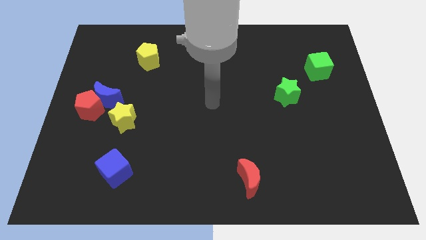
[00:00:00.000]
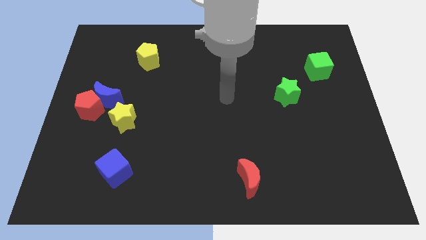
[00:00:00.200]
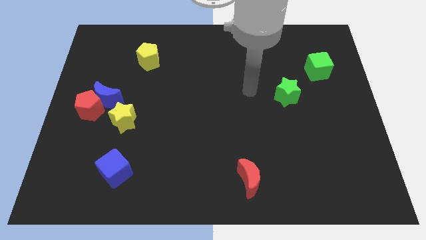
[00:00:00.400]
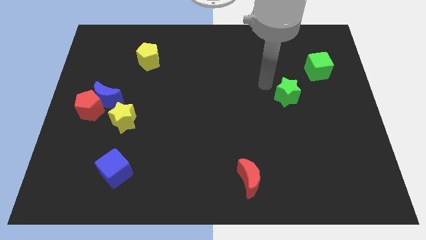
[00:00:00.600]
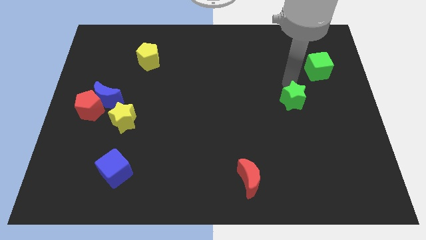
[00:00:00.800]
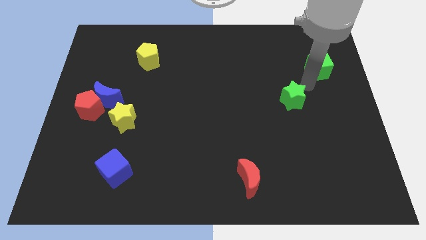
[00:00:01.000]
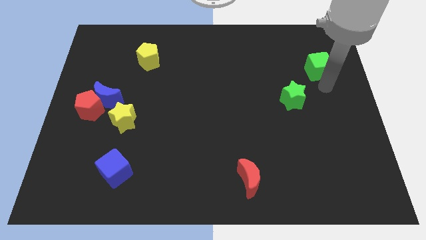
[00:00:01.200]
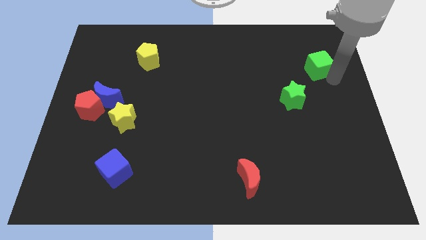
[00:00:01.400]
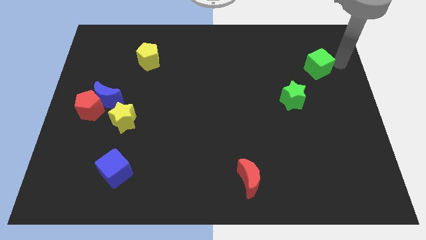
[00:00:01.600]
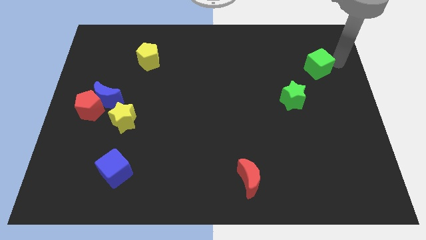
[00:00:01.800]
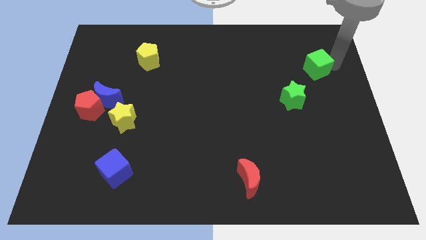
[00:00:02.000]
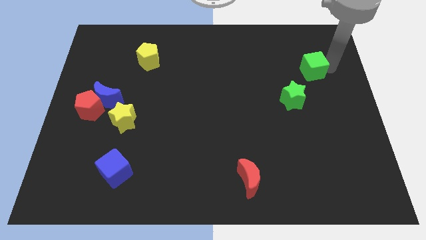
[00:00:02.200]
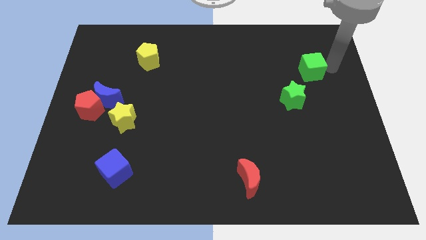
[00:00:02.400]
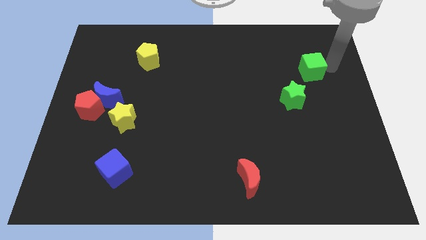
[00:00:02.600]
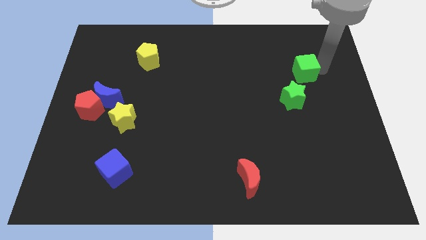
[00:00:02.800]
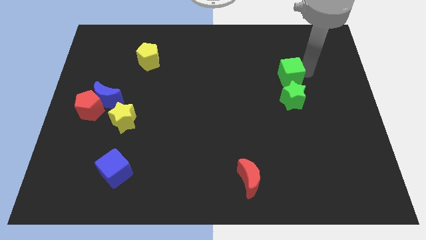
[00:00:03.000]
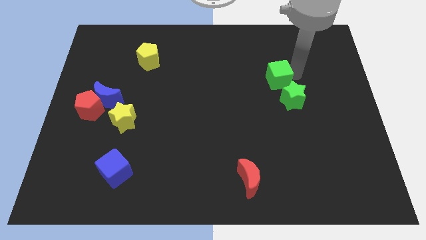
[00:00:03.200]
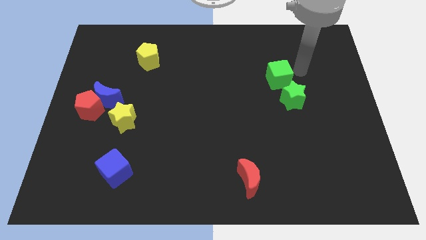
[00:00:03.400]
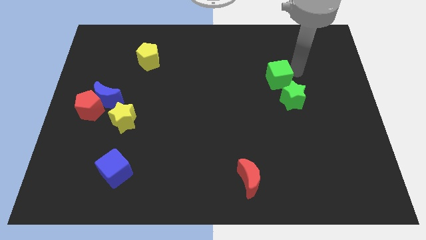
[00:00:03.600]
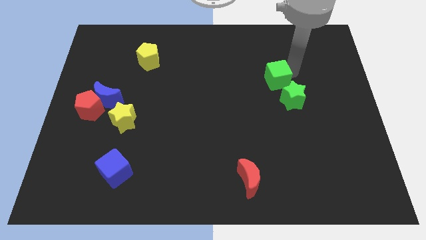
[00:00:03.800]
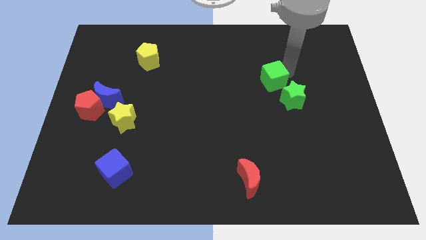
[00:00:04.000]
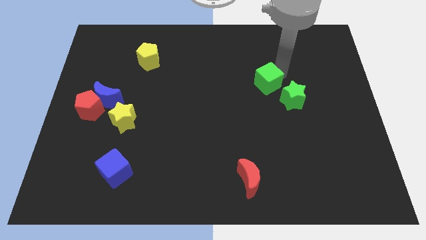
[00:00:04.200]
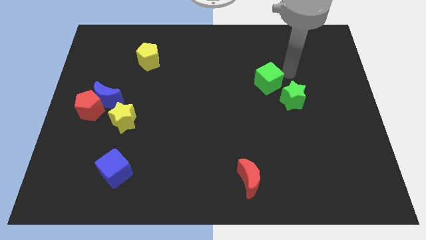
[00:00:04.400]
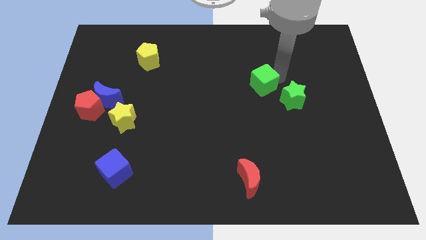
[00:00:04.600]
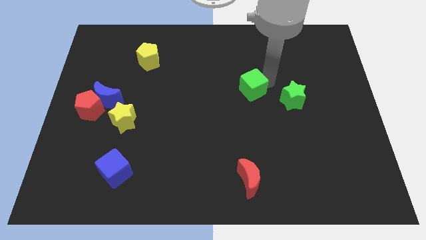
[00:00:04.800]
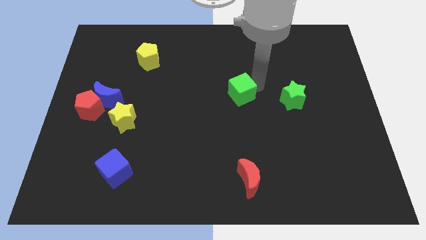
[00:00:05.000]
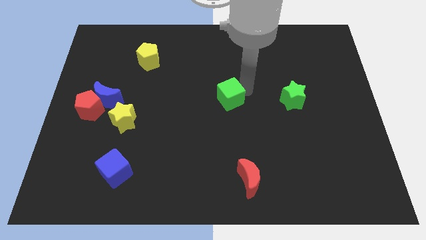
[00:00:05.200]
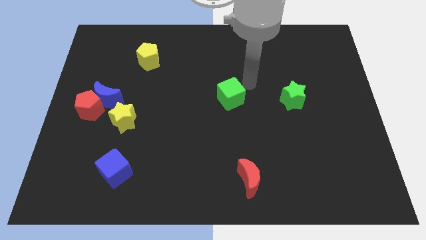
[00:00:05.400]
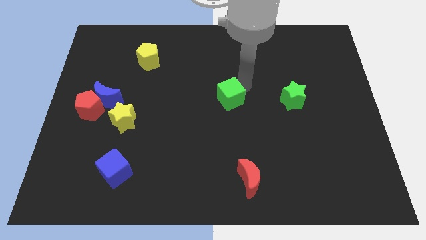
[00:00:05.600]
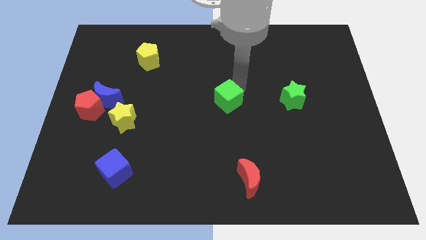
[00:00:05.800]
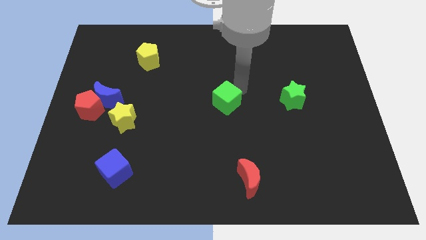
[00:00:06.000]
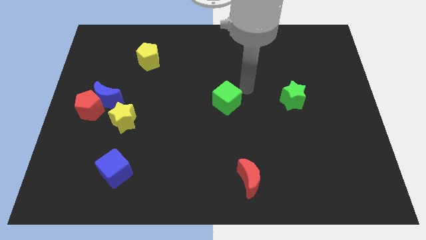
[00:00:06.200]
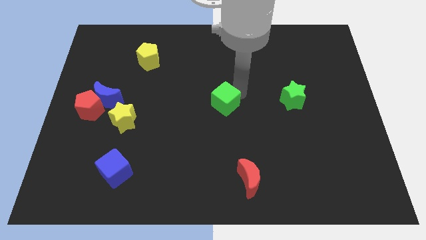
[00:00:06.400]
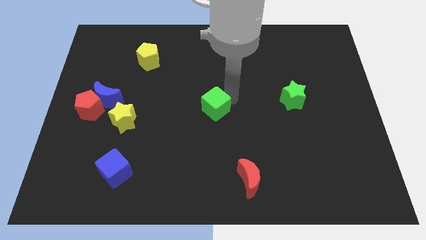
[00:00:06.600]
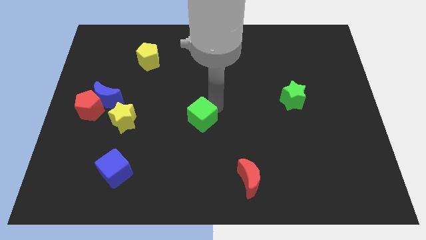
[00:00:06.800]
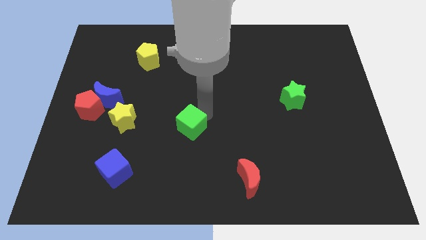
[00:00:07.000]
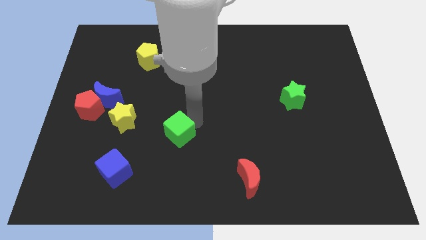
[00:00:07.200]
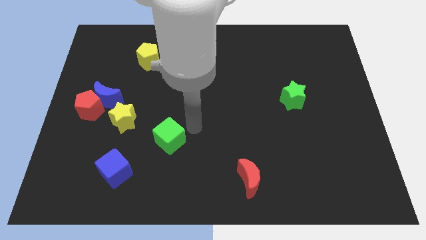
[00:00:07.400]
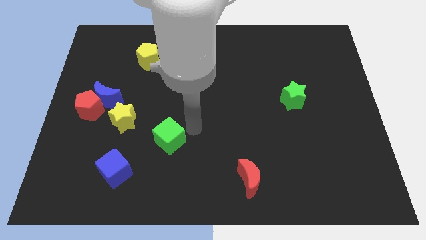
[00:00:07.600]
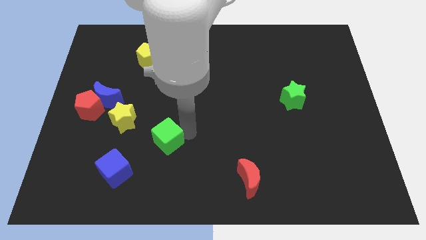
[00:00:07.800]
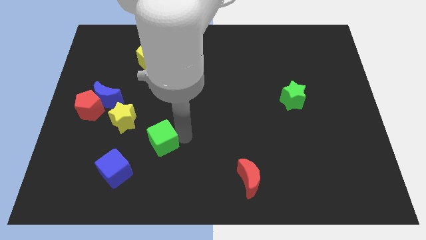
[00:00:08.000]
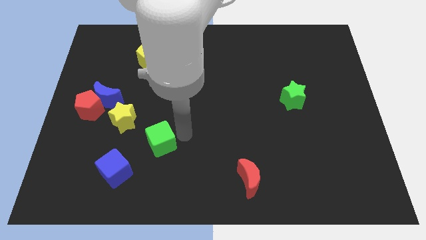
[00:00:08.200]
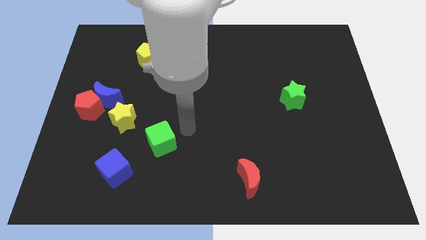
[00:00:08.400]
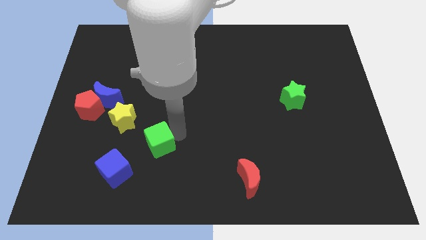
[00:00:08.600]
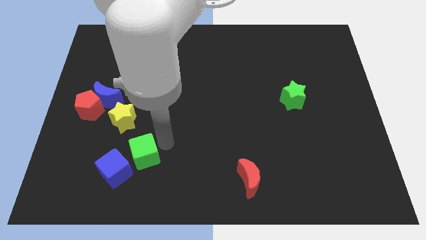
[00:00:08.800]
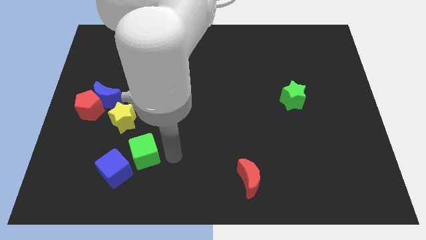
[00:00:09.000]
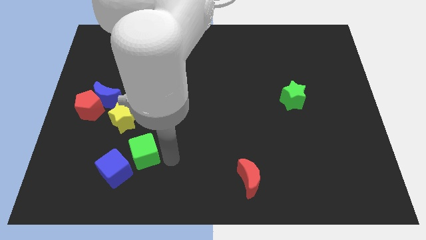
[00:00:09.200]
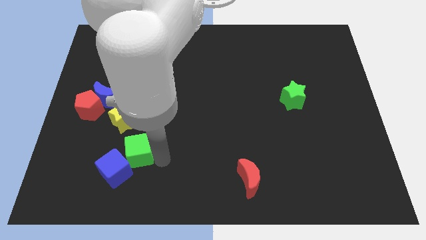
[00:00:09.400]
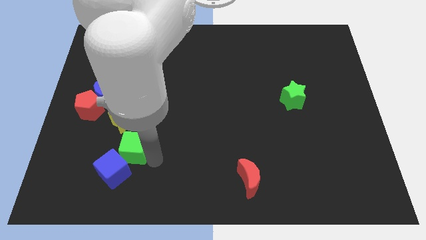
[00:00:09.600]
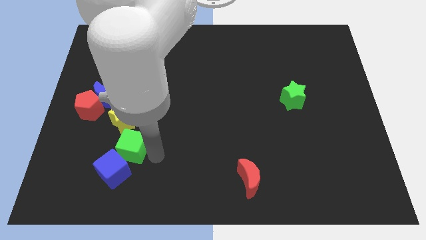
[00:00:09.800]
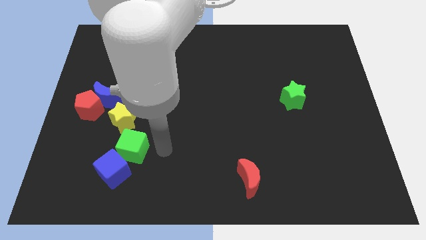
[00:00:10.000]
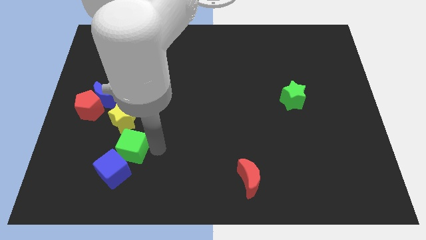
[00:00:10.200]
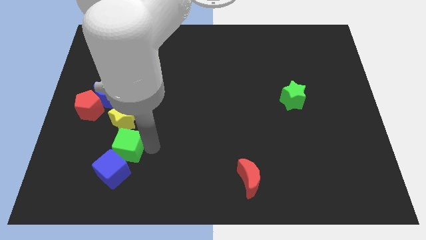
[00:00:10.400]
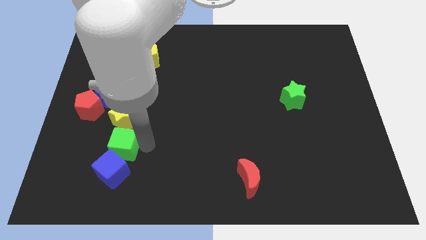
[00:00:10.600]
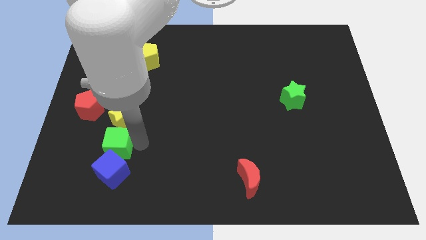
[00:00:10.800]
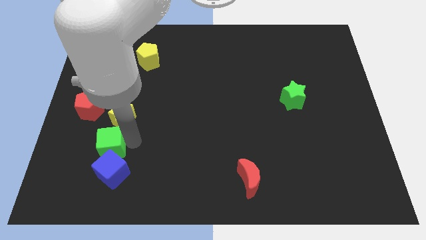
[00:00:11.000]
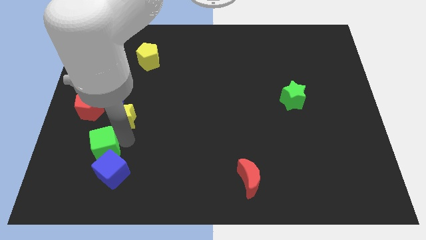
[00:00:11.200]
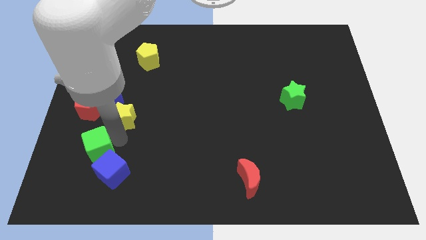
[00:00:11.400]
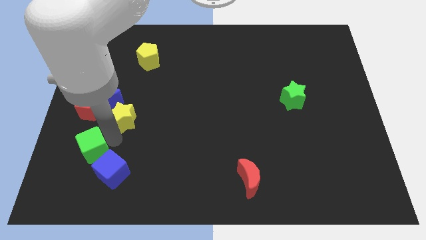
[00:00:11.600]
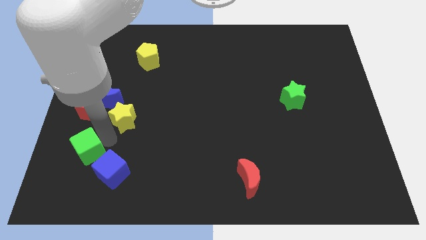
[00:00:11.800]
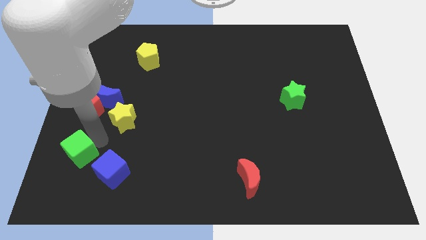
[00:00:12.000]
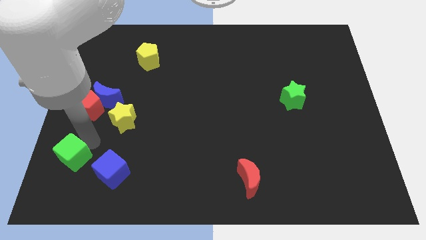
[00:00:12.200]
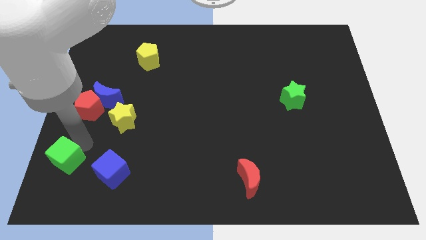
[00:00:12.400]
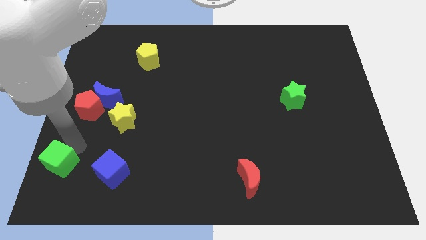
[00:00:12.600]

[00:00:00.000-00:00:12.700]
move the green cube to the lower left corner
